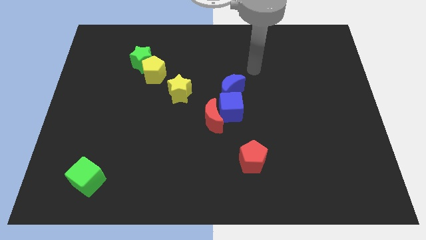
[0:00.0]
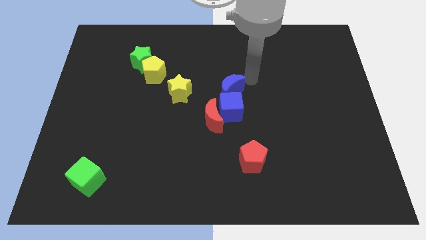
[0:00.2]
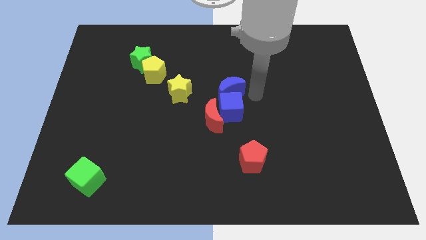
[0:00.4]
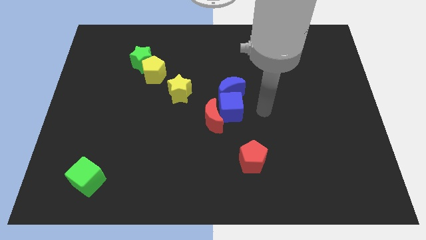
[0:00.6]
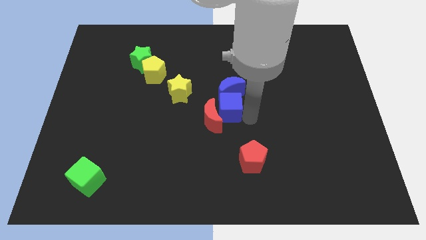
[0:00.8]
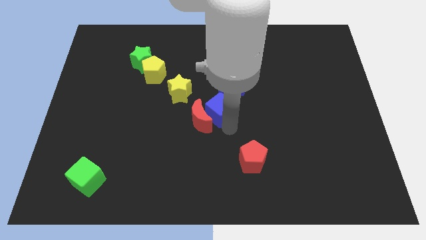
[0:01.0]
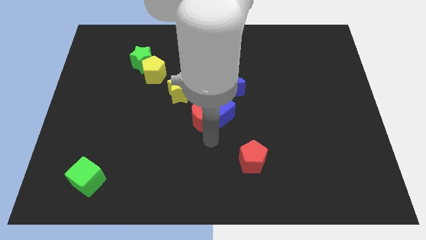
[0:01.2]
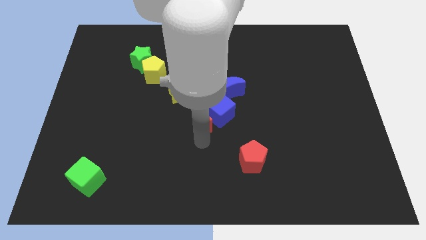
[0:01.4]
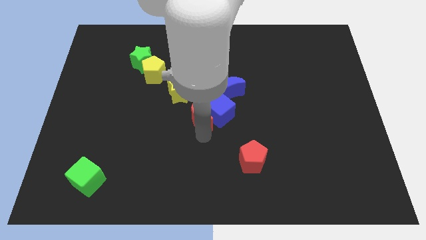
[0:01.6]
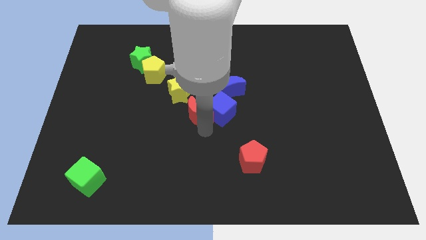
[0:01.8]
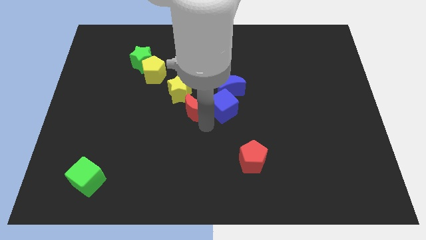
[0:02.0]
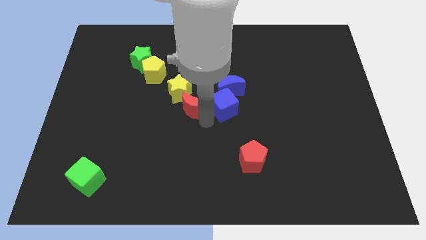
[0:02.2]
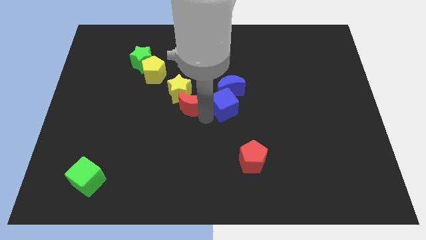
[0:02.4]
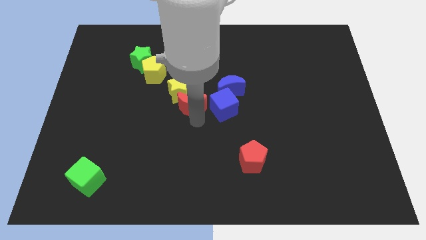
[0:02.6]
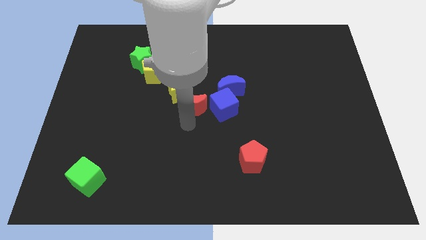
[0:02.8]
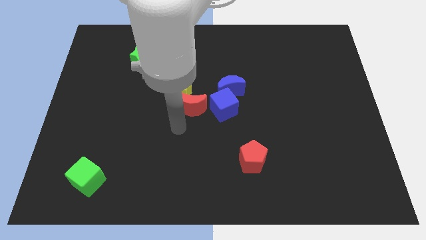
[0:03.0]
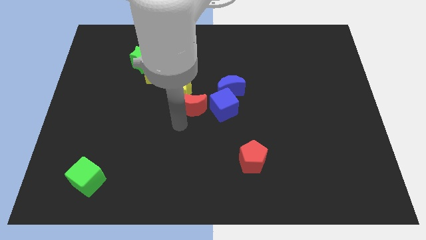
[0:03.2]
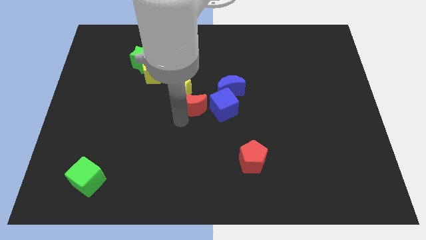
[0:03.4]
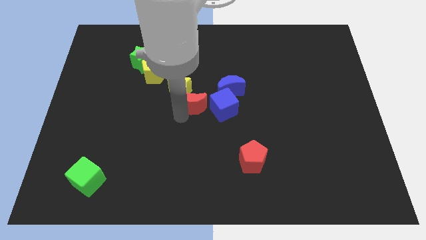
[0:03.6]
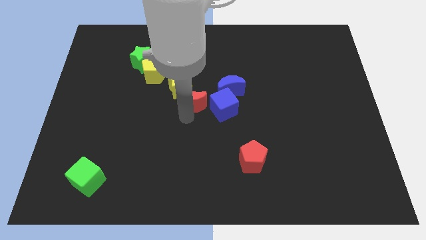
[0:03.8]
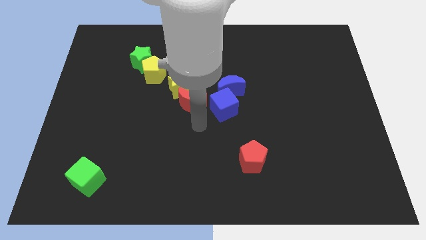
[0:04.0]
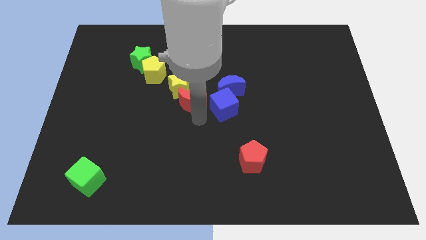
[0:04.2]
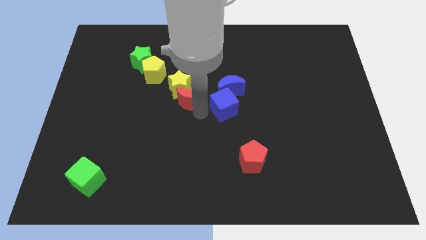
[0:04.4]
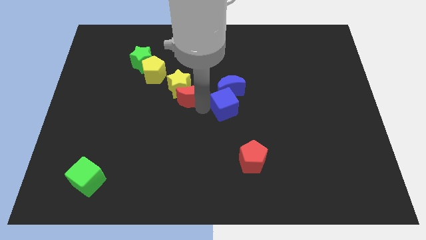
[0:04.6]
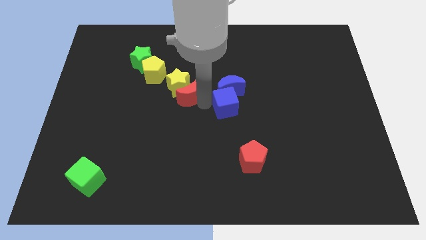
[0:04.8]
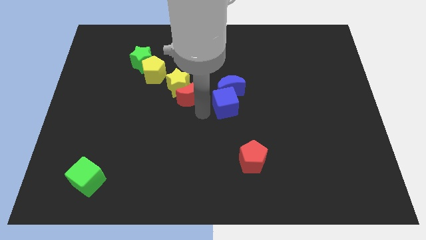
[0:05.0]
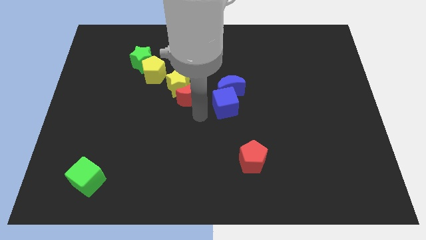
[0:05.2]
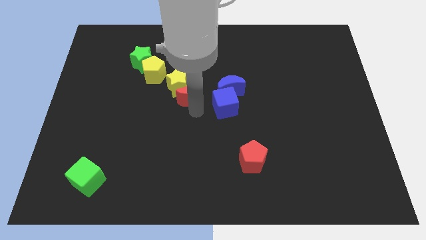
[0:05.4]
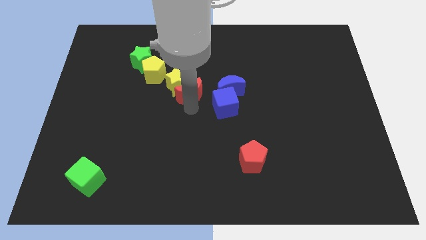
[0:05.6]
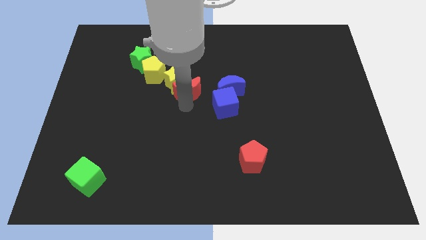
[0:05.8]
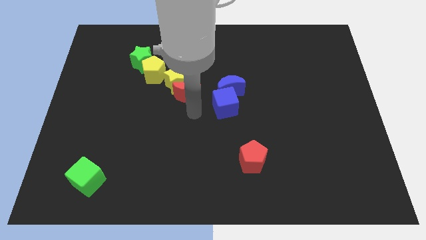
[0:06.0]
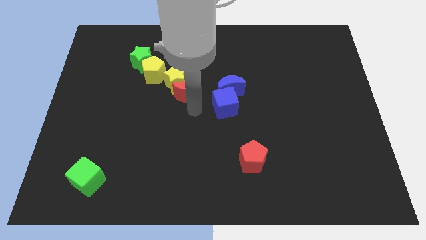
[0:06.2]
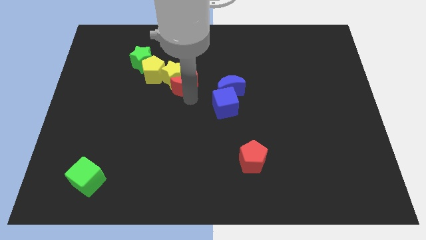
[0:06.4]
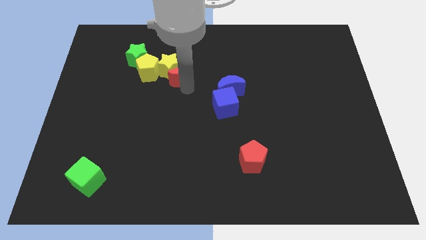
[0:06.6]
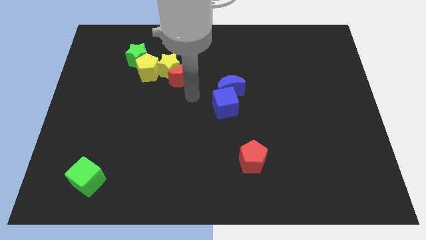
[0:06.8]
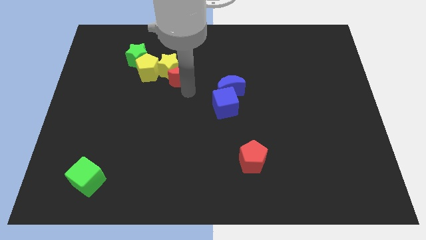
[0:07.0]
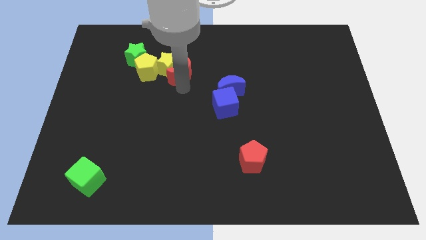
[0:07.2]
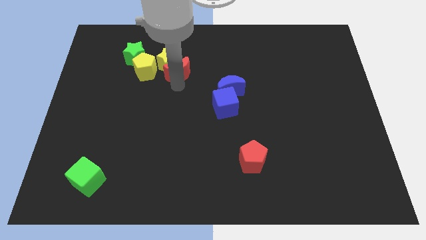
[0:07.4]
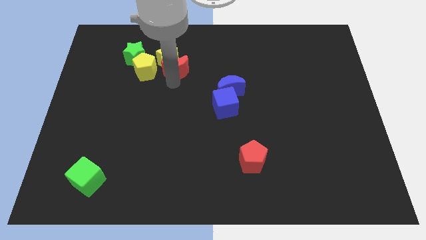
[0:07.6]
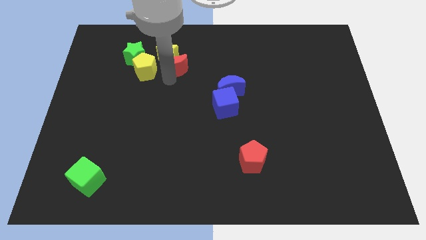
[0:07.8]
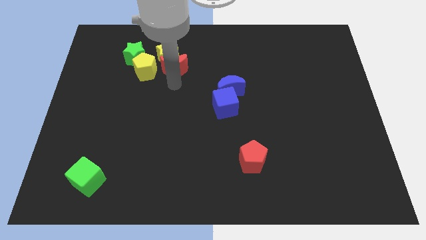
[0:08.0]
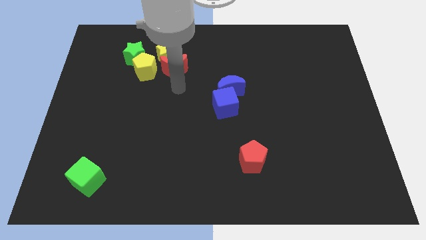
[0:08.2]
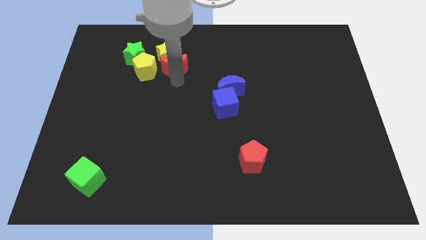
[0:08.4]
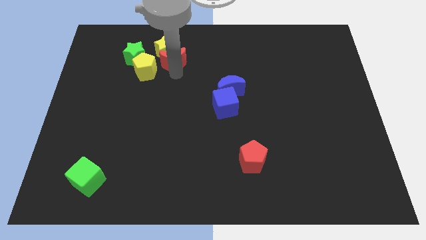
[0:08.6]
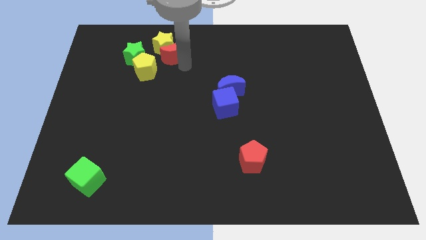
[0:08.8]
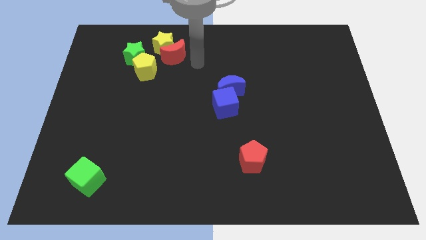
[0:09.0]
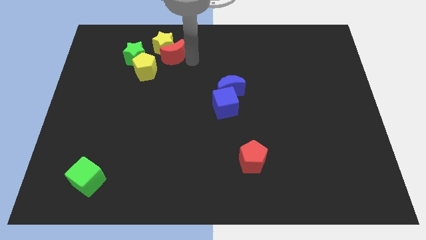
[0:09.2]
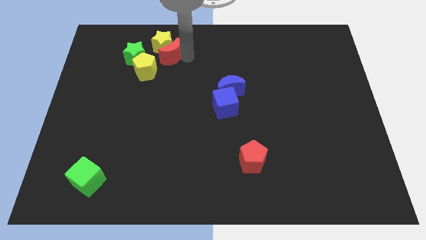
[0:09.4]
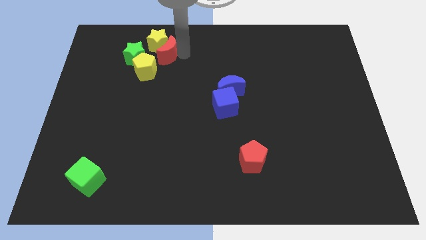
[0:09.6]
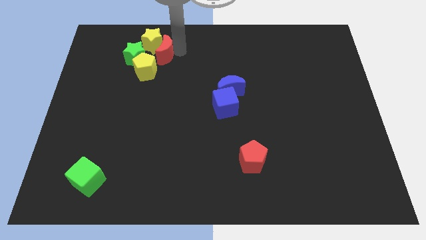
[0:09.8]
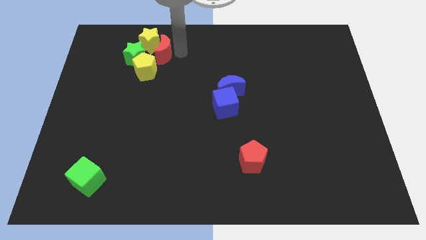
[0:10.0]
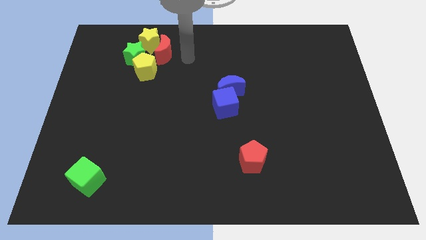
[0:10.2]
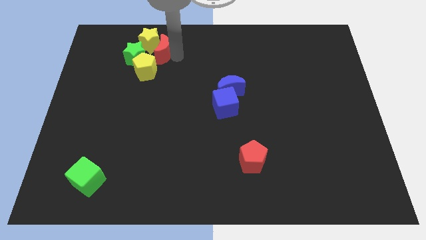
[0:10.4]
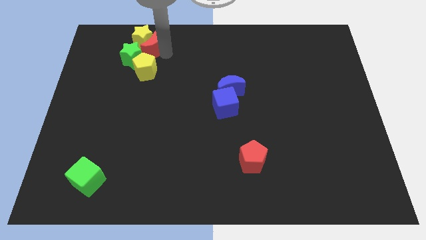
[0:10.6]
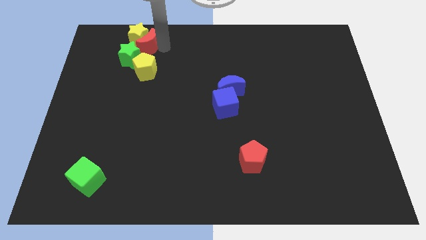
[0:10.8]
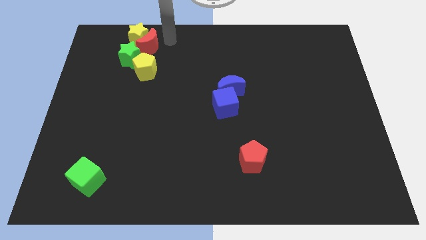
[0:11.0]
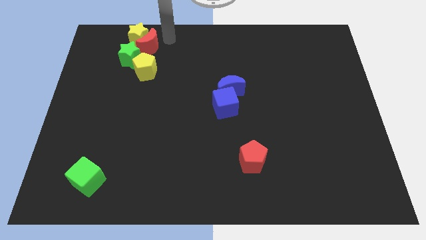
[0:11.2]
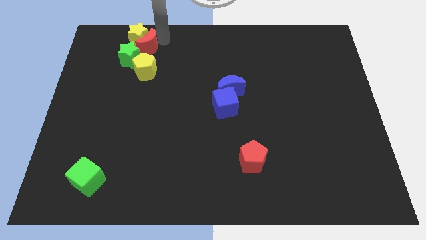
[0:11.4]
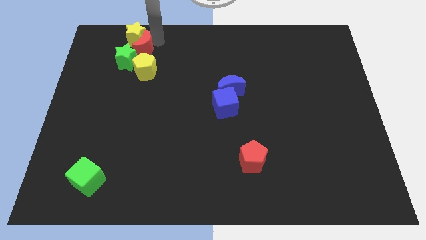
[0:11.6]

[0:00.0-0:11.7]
slide the red moon diagonally up and to the left of the yellow pentagon

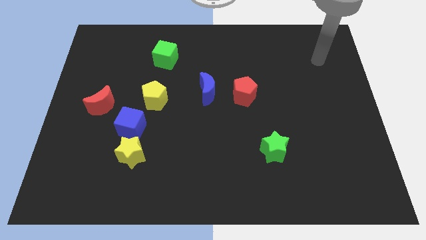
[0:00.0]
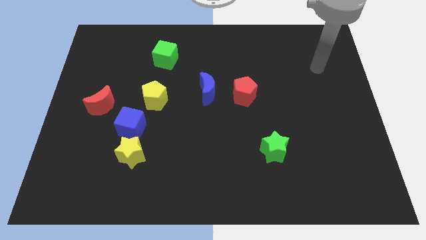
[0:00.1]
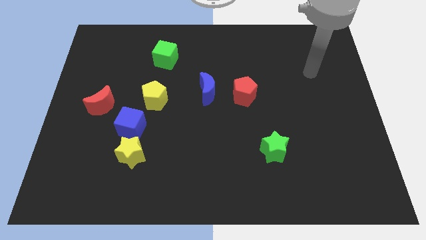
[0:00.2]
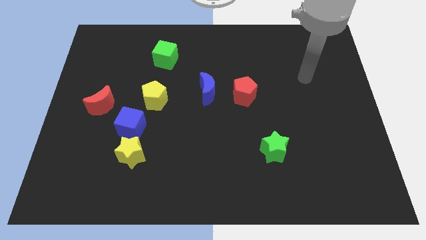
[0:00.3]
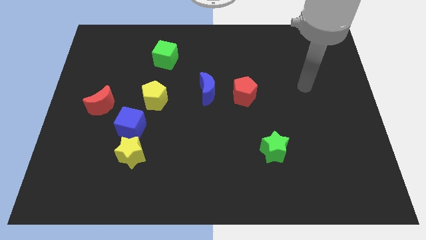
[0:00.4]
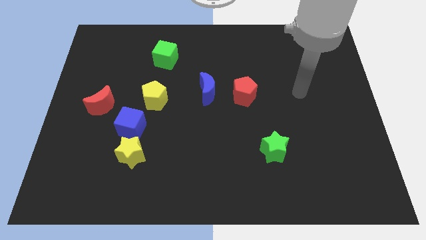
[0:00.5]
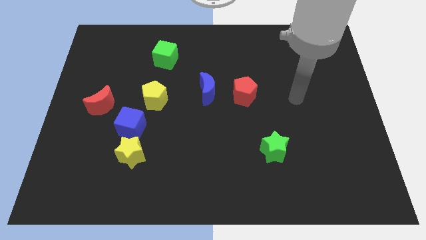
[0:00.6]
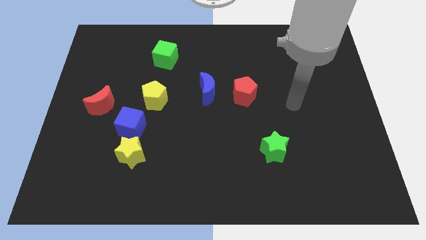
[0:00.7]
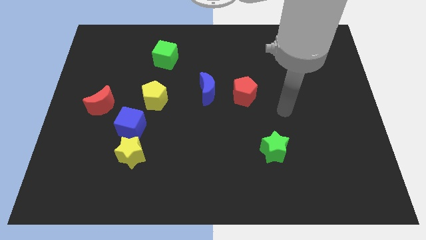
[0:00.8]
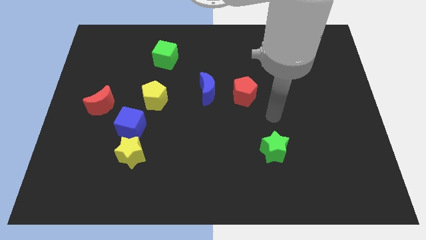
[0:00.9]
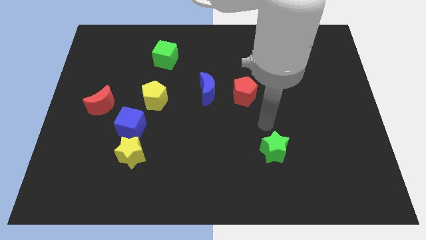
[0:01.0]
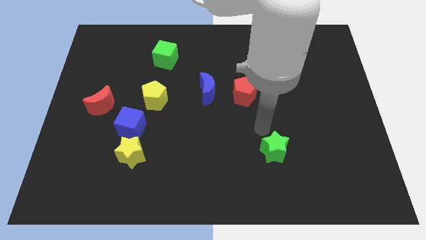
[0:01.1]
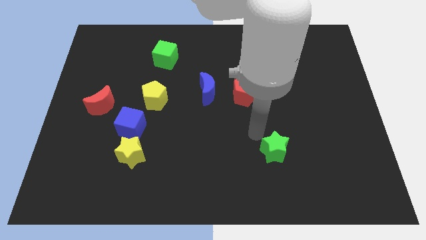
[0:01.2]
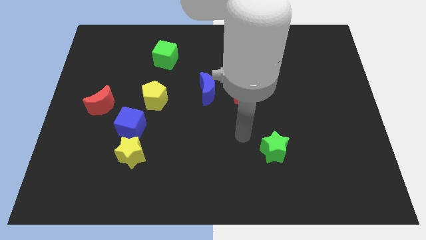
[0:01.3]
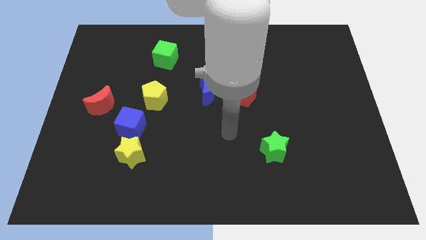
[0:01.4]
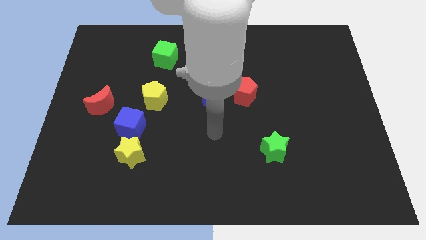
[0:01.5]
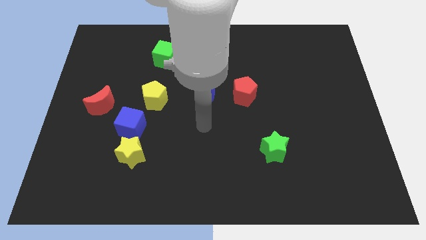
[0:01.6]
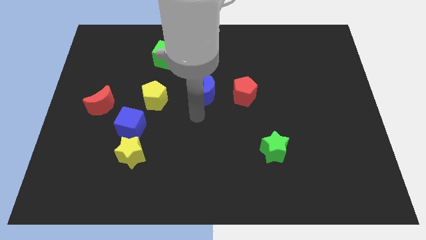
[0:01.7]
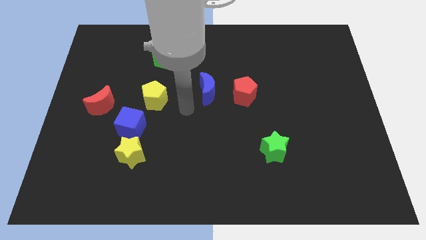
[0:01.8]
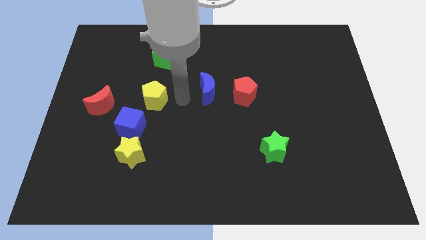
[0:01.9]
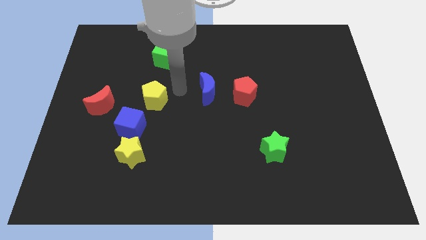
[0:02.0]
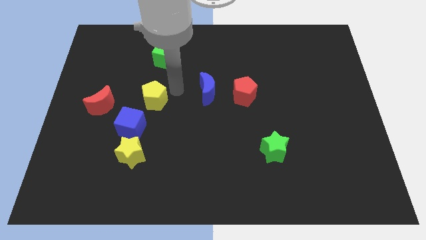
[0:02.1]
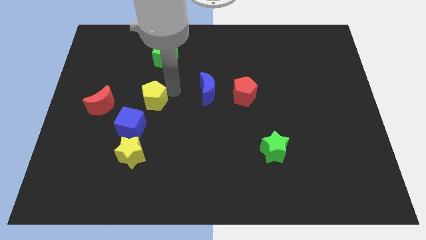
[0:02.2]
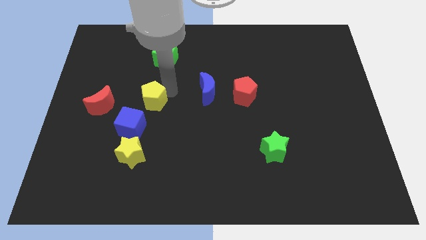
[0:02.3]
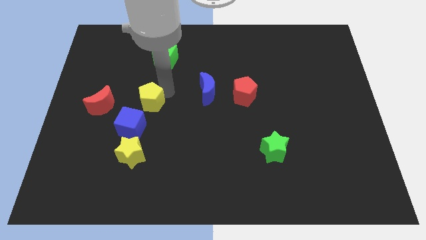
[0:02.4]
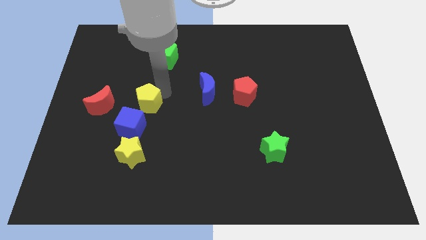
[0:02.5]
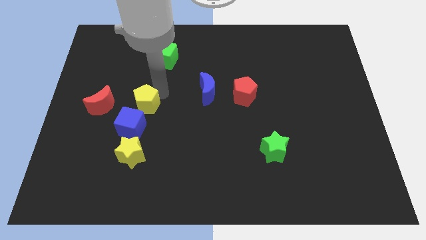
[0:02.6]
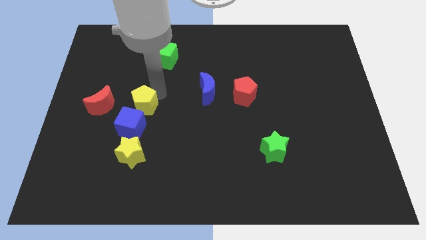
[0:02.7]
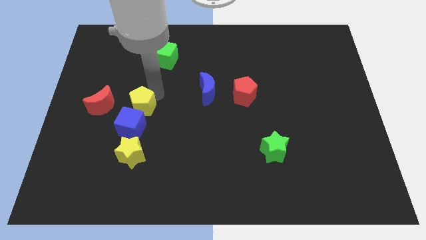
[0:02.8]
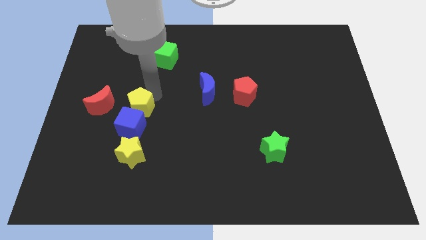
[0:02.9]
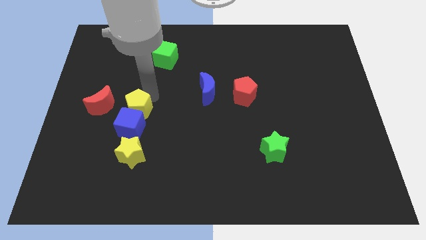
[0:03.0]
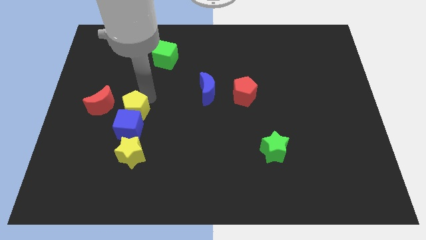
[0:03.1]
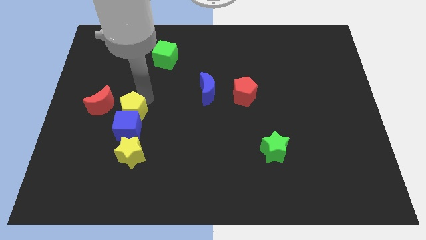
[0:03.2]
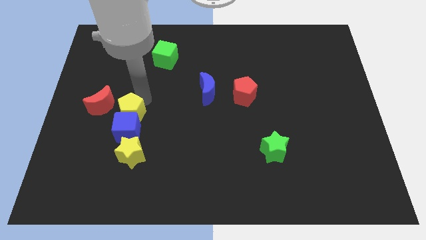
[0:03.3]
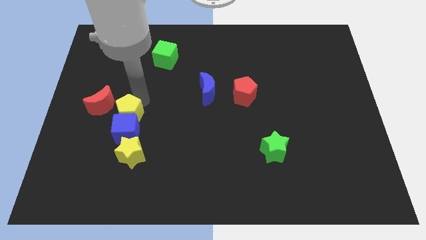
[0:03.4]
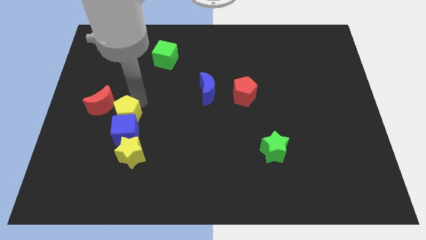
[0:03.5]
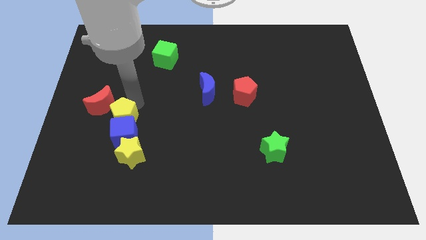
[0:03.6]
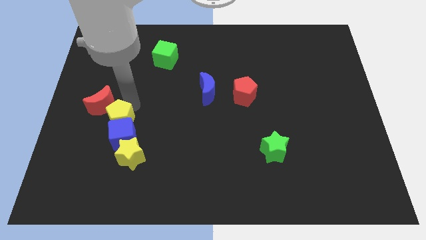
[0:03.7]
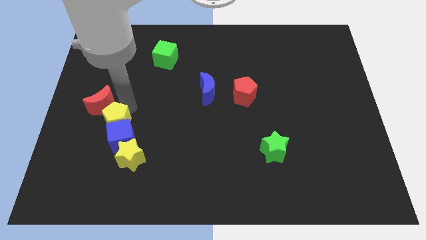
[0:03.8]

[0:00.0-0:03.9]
put the yellow pentagon to the bottom of the red moon
